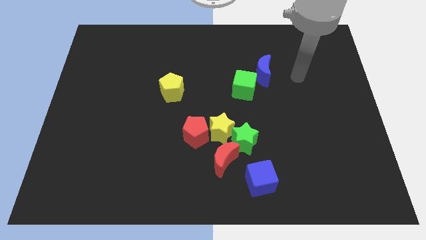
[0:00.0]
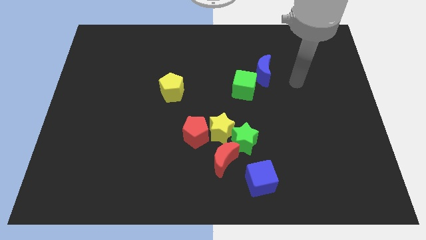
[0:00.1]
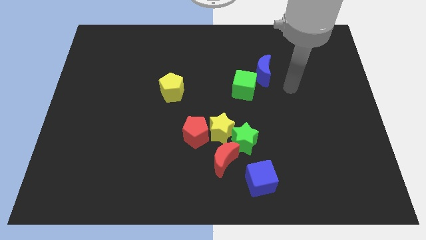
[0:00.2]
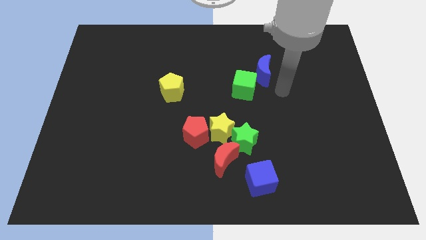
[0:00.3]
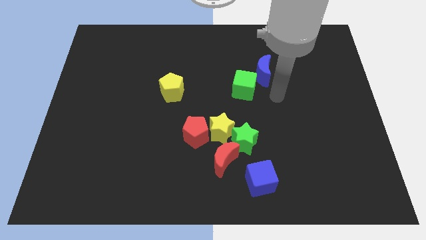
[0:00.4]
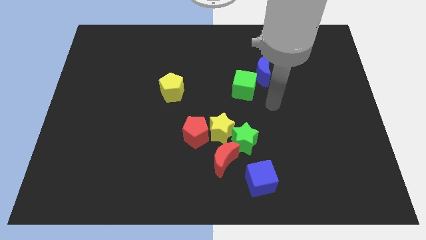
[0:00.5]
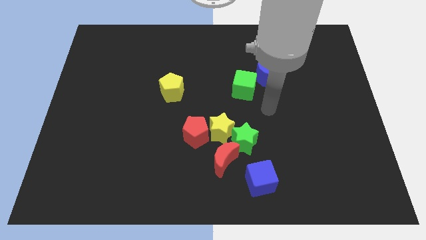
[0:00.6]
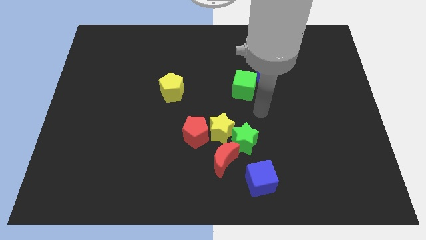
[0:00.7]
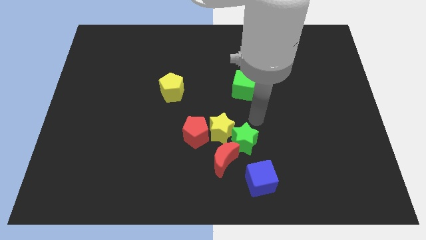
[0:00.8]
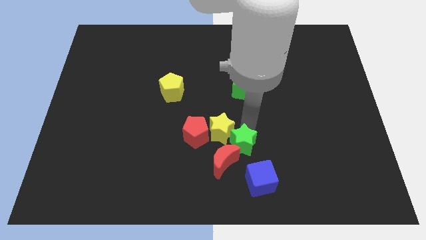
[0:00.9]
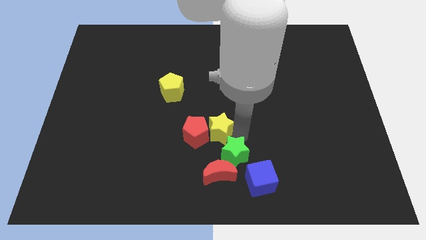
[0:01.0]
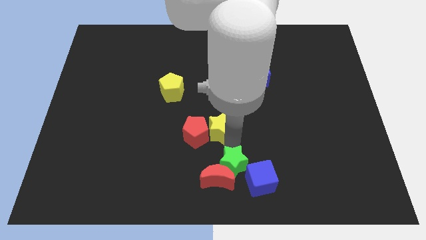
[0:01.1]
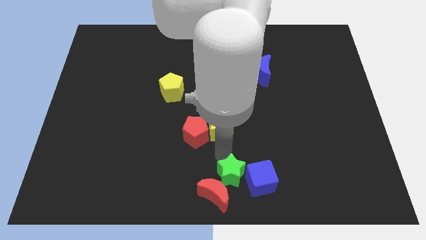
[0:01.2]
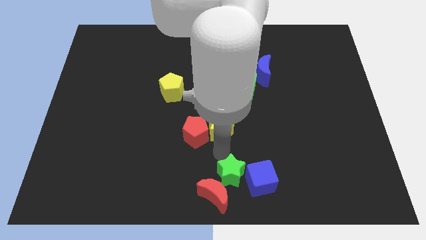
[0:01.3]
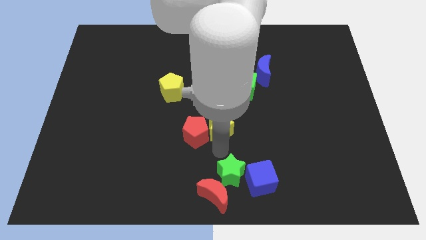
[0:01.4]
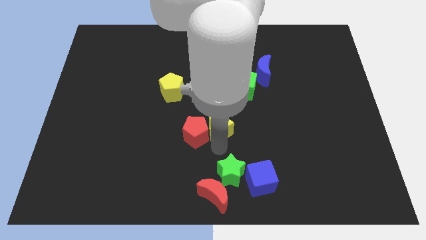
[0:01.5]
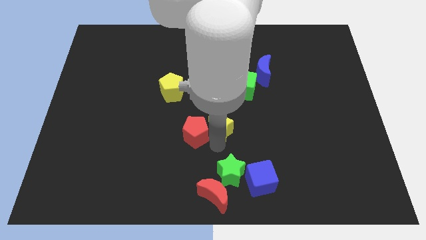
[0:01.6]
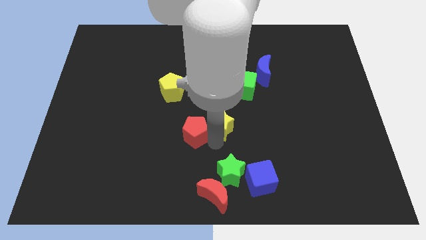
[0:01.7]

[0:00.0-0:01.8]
separate the yellow star from the red pentagon, green star, and red moon

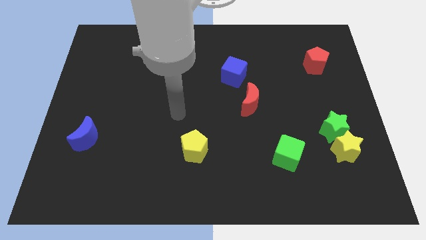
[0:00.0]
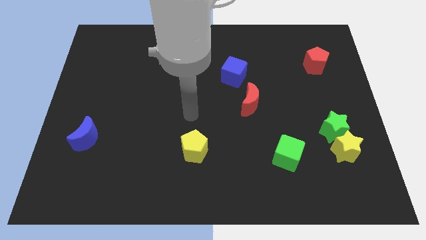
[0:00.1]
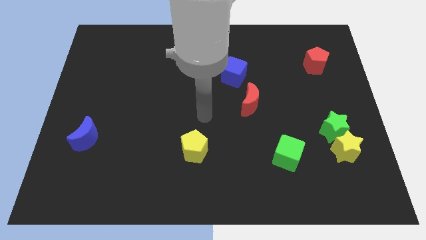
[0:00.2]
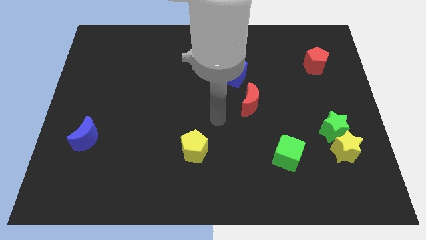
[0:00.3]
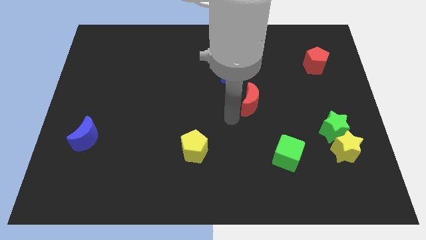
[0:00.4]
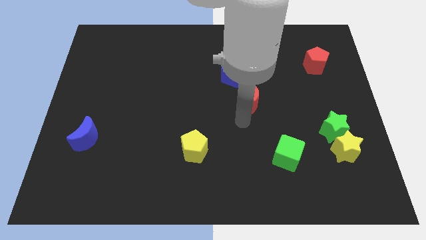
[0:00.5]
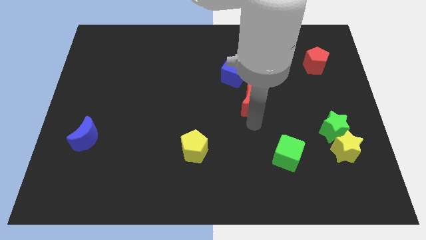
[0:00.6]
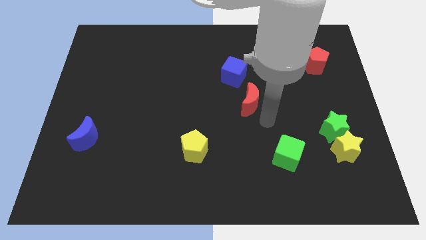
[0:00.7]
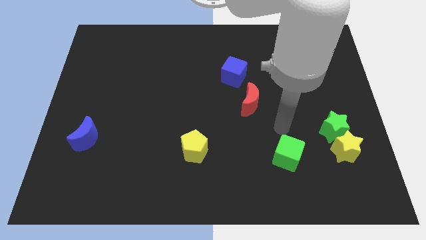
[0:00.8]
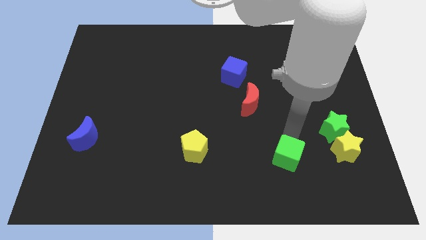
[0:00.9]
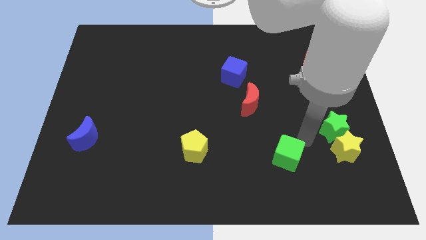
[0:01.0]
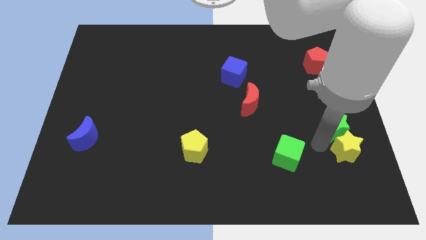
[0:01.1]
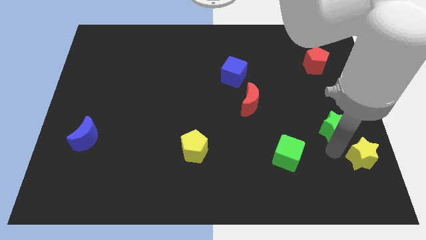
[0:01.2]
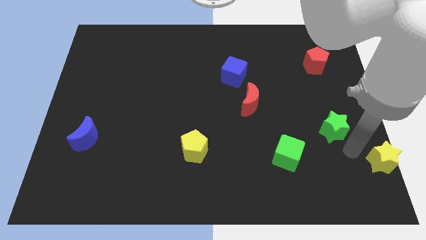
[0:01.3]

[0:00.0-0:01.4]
move the green star away from the yellow star

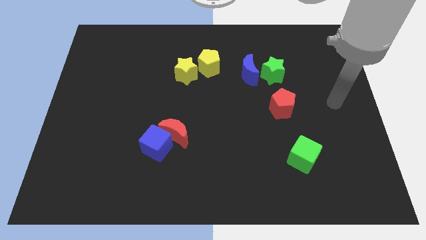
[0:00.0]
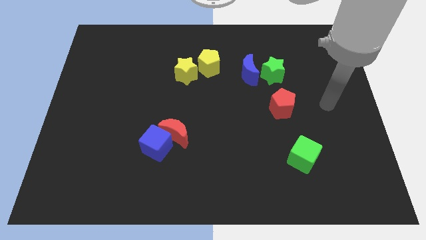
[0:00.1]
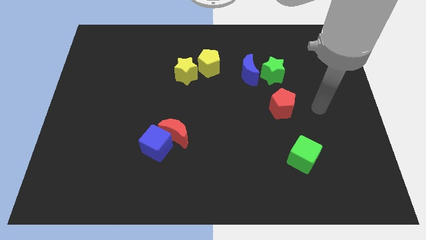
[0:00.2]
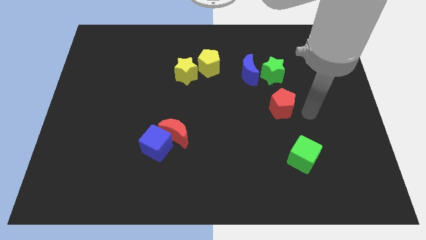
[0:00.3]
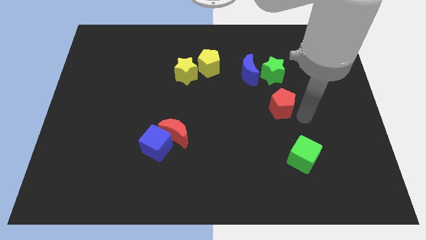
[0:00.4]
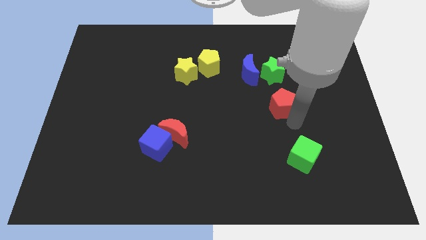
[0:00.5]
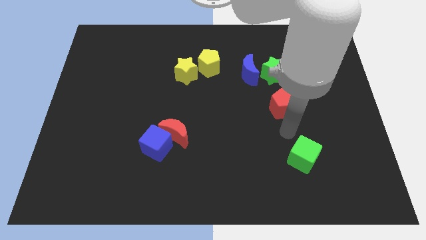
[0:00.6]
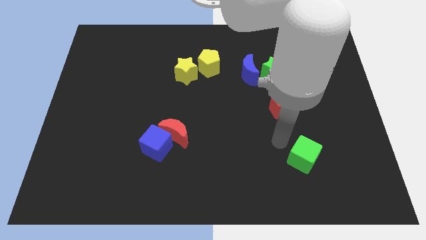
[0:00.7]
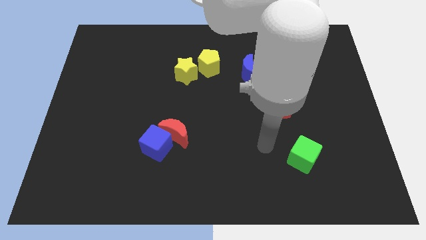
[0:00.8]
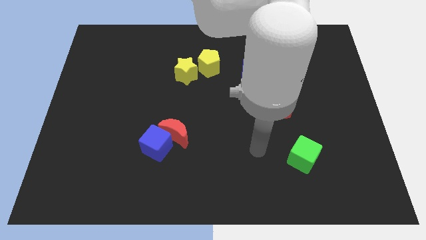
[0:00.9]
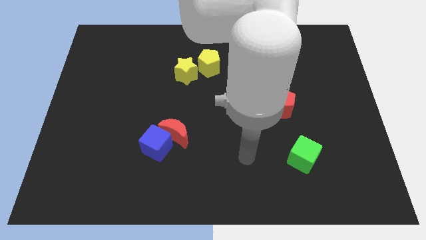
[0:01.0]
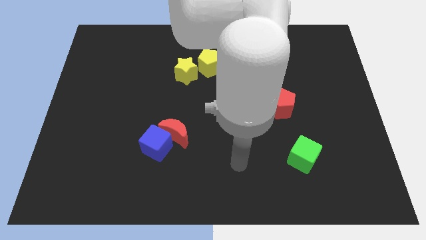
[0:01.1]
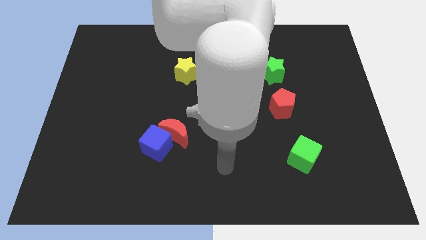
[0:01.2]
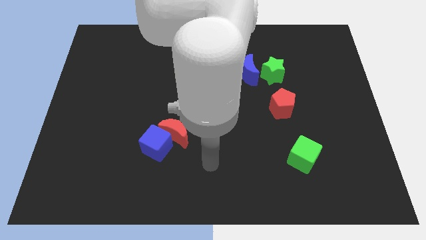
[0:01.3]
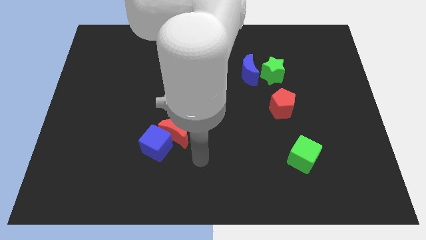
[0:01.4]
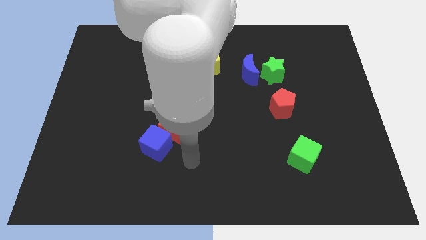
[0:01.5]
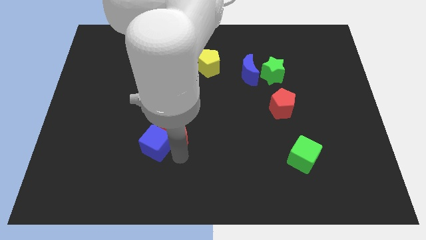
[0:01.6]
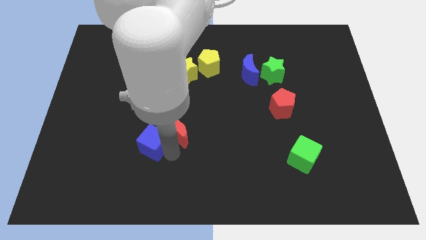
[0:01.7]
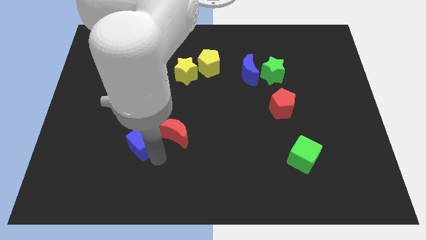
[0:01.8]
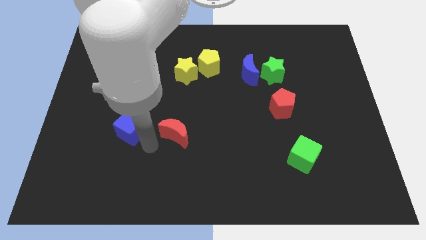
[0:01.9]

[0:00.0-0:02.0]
separate the red moon from the blue cube

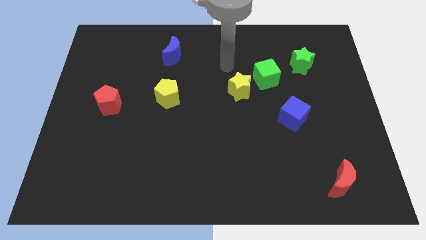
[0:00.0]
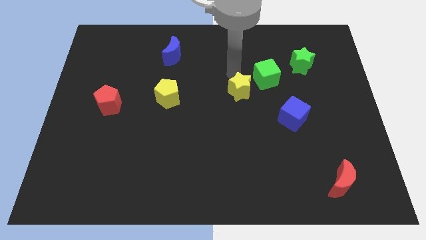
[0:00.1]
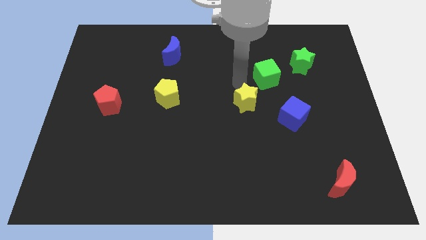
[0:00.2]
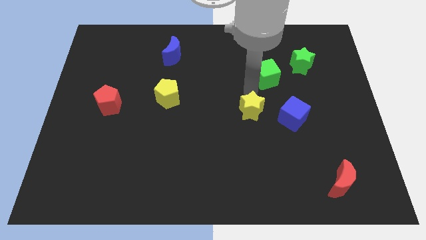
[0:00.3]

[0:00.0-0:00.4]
move the green cube away from the yellow star

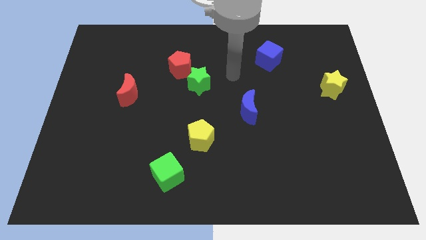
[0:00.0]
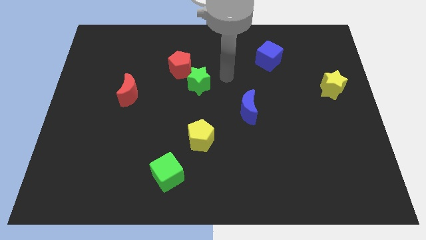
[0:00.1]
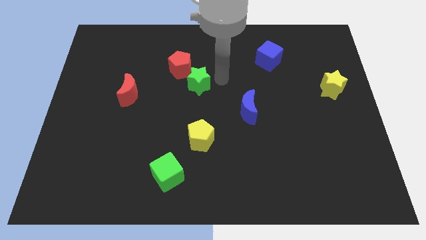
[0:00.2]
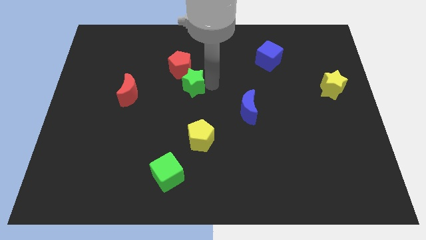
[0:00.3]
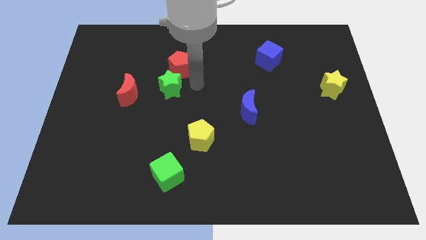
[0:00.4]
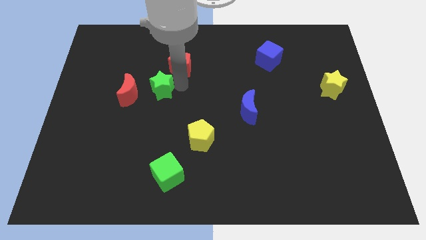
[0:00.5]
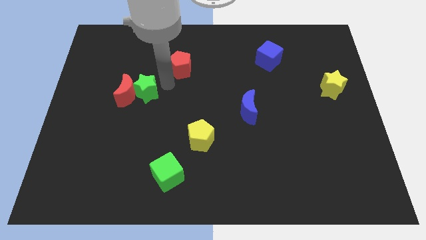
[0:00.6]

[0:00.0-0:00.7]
separate the red pentagon from the green star

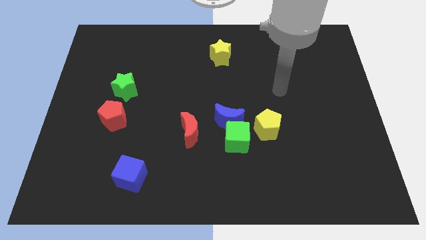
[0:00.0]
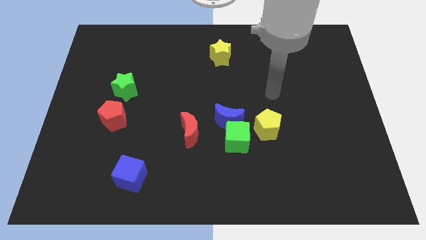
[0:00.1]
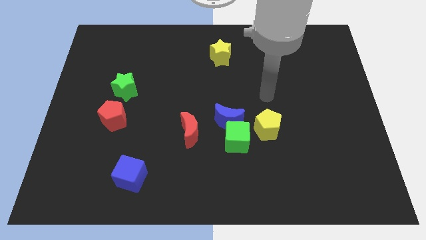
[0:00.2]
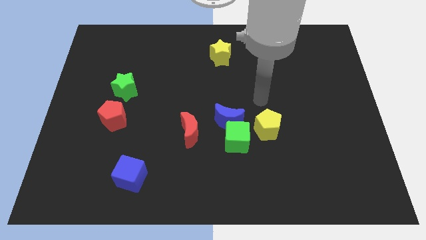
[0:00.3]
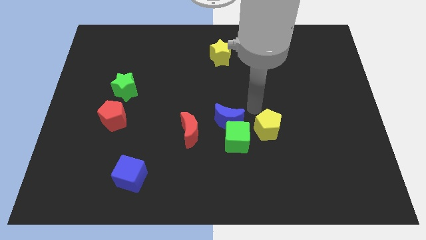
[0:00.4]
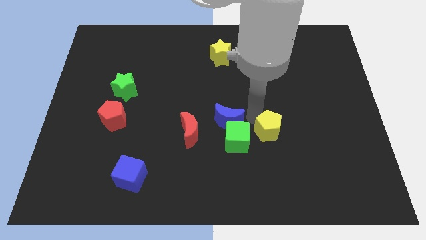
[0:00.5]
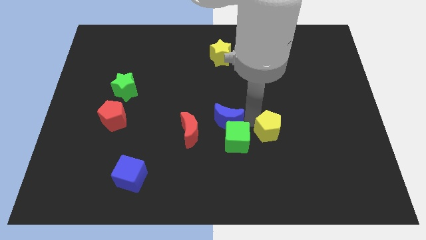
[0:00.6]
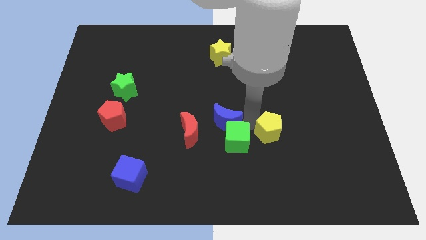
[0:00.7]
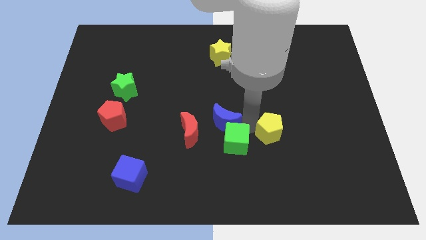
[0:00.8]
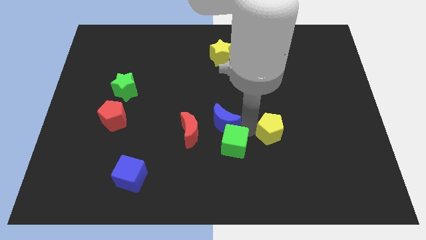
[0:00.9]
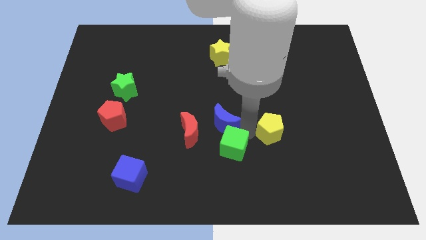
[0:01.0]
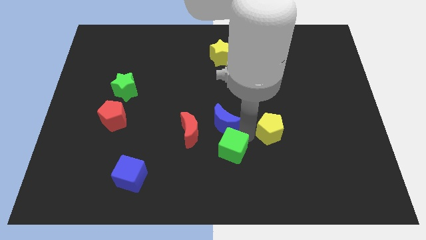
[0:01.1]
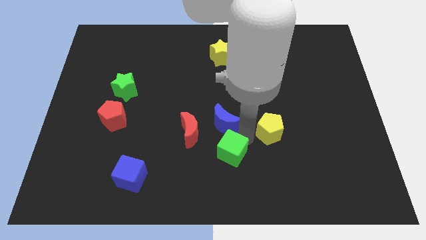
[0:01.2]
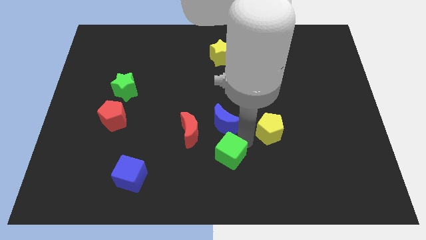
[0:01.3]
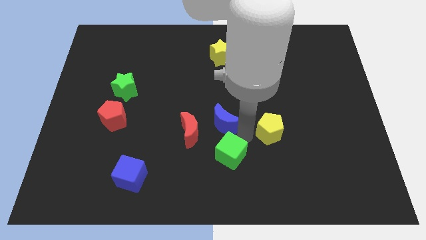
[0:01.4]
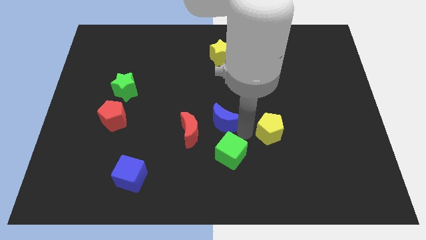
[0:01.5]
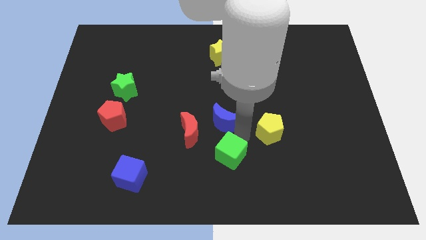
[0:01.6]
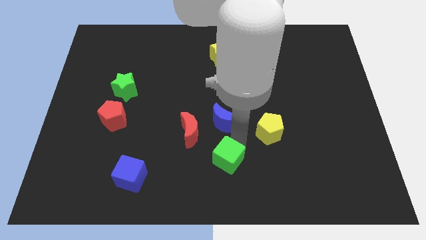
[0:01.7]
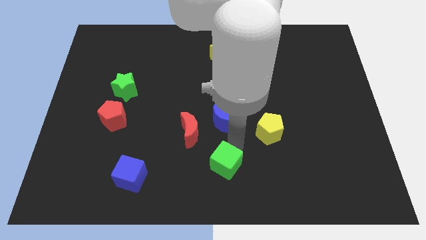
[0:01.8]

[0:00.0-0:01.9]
move the green cube away from the blue moon and yellow pentagon

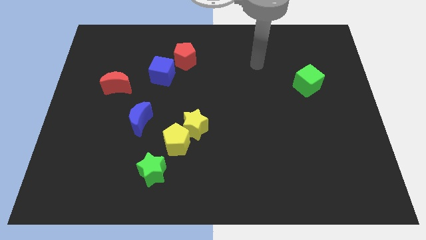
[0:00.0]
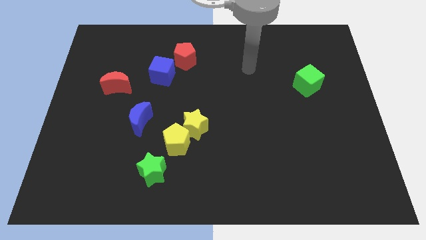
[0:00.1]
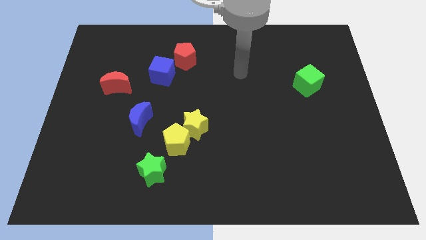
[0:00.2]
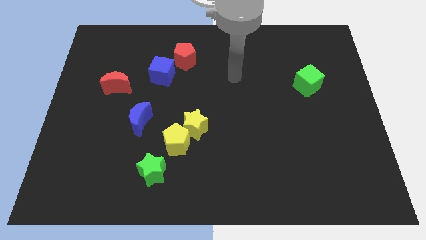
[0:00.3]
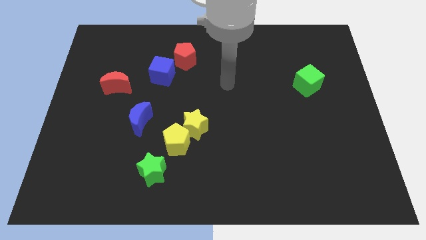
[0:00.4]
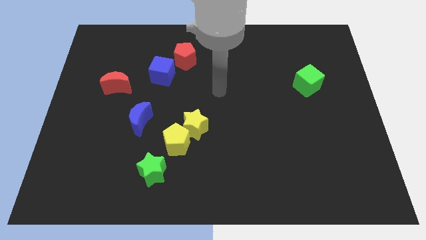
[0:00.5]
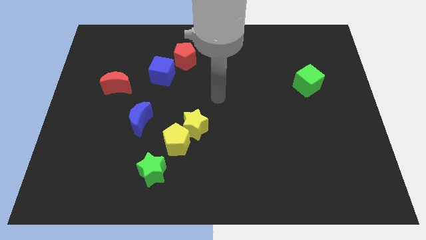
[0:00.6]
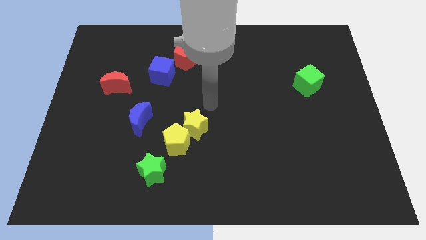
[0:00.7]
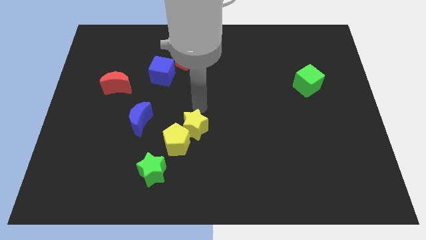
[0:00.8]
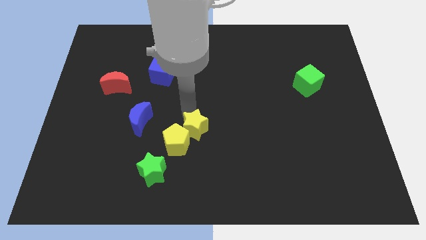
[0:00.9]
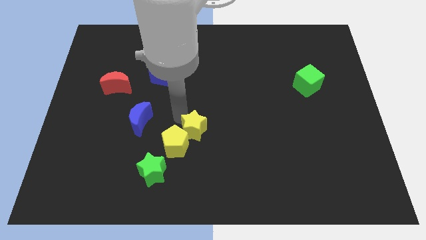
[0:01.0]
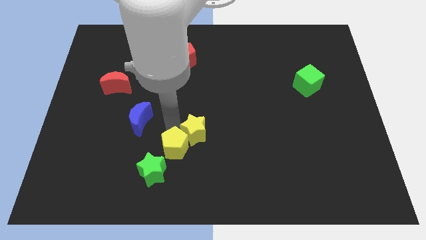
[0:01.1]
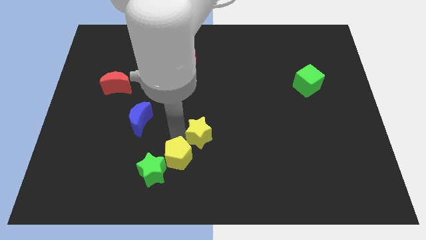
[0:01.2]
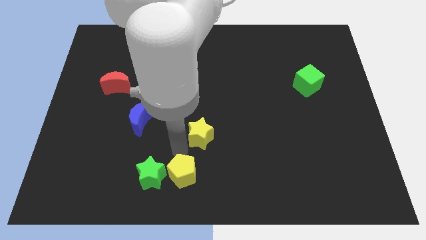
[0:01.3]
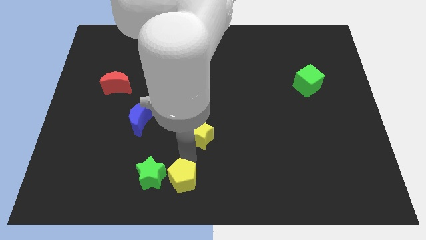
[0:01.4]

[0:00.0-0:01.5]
pull the yellow star apart from the yellow pentagon
